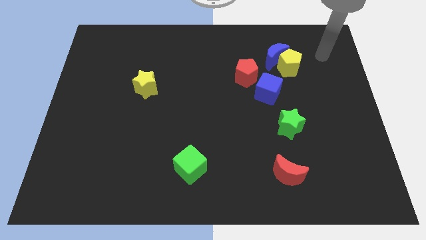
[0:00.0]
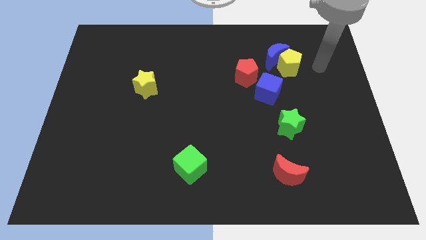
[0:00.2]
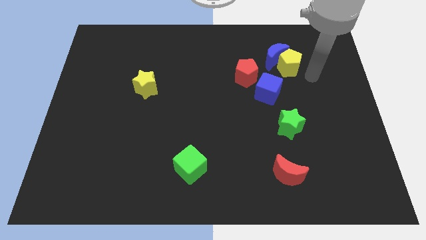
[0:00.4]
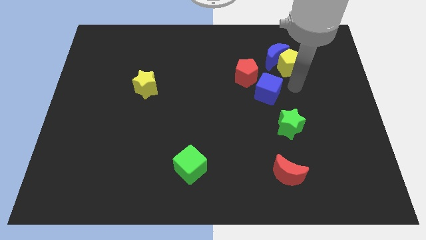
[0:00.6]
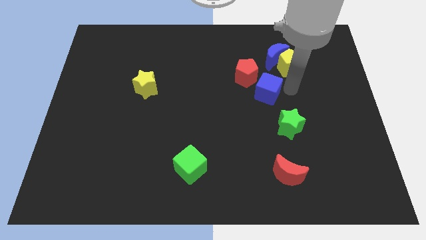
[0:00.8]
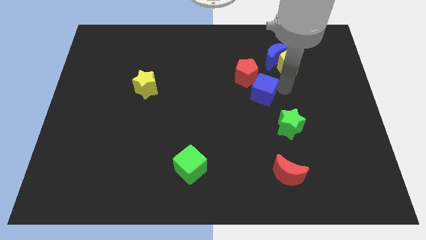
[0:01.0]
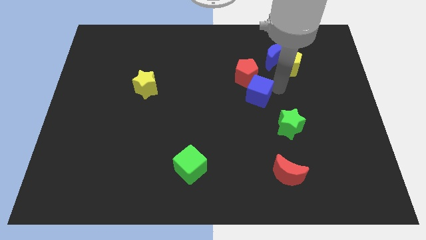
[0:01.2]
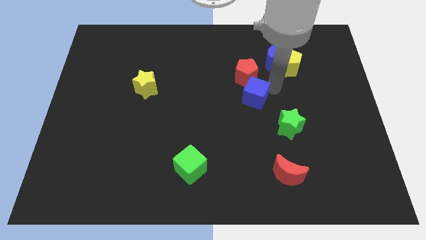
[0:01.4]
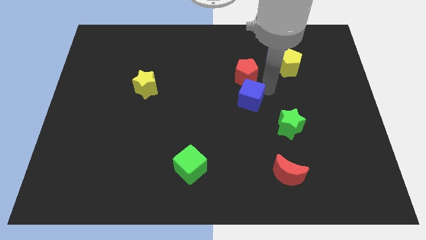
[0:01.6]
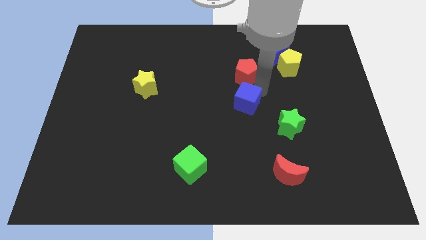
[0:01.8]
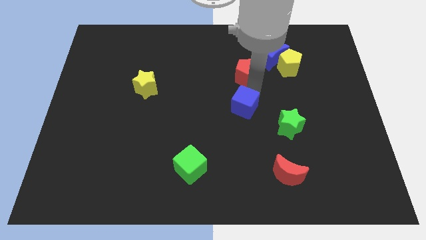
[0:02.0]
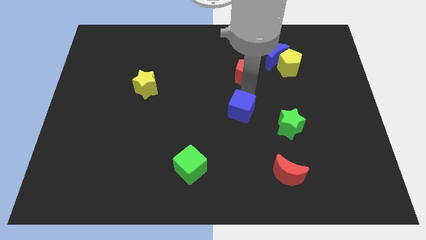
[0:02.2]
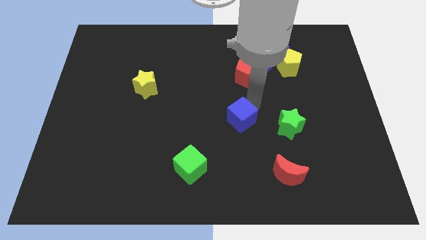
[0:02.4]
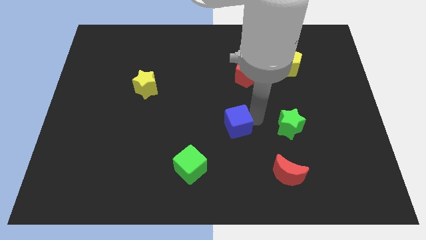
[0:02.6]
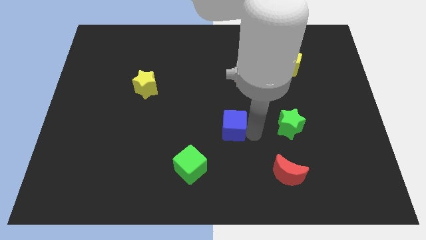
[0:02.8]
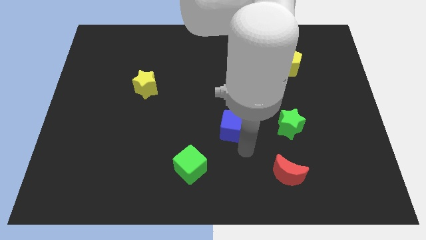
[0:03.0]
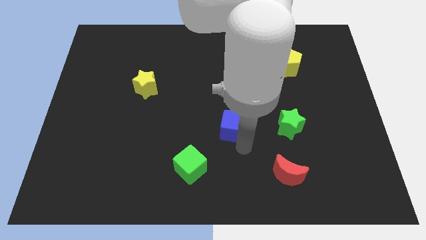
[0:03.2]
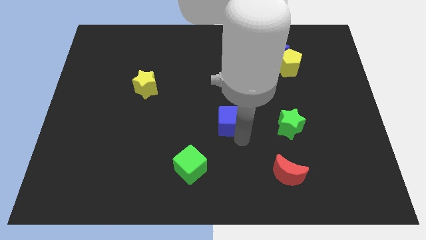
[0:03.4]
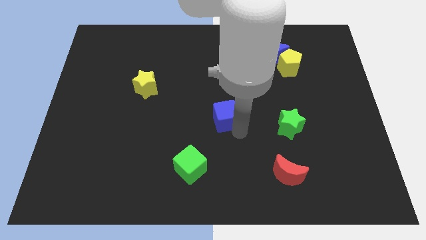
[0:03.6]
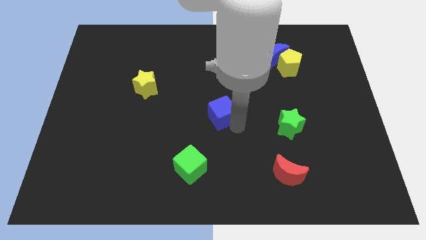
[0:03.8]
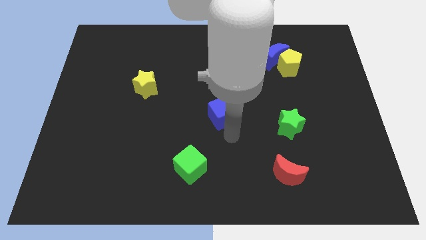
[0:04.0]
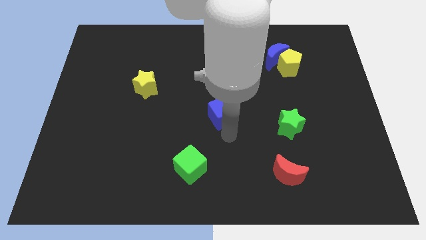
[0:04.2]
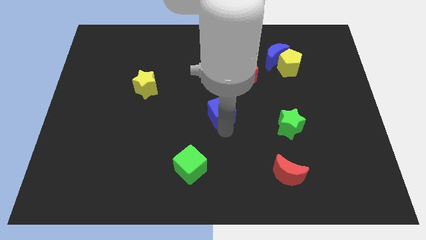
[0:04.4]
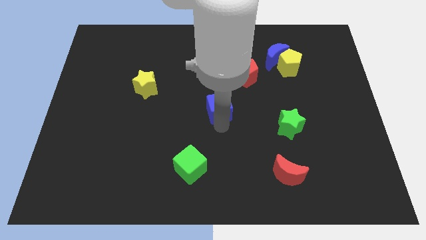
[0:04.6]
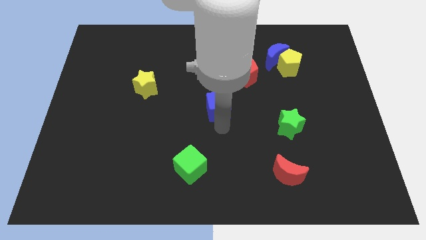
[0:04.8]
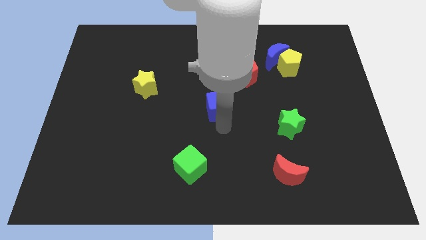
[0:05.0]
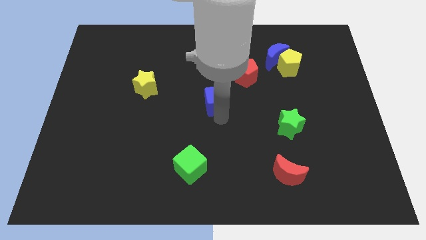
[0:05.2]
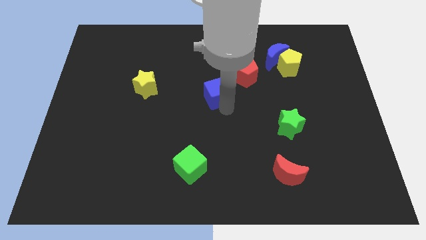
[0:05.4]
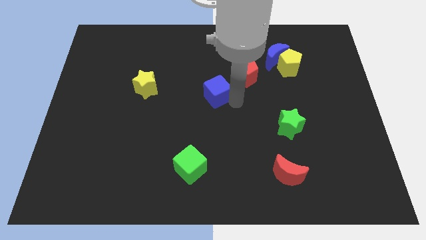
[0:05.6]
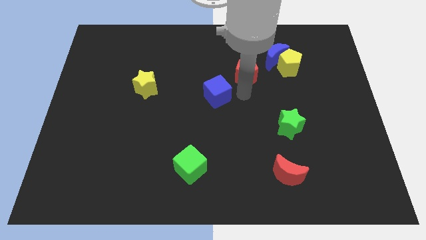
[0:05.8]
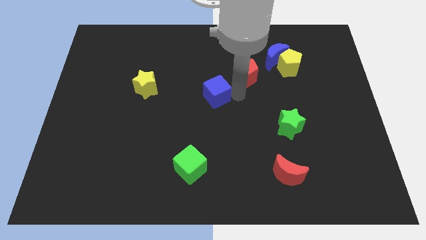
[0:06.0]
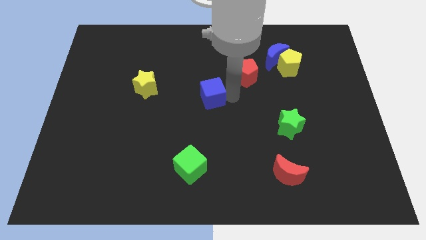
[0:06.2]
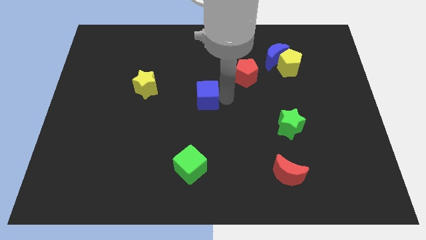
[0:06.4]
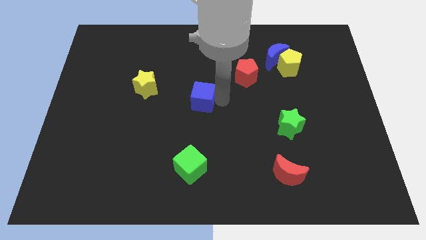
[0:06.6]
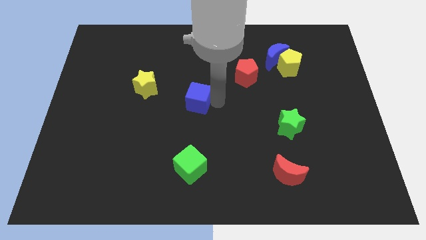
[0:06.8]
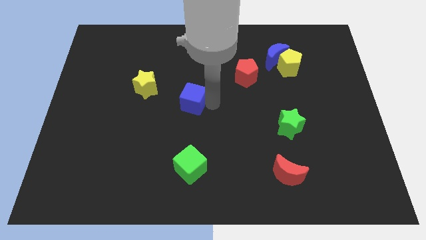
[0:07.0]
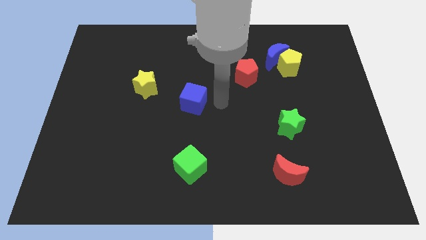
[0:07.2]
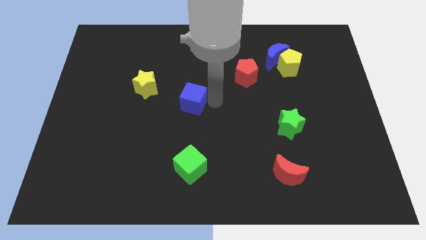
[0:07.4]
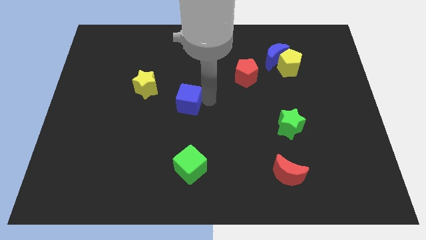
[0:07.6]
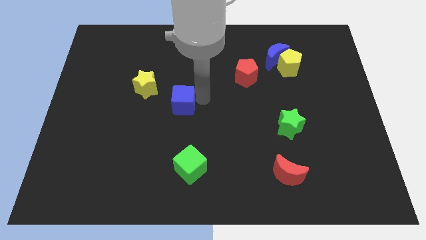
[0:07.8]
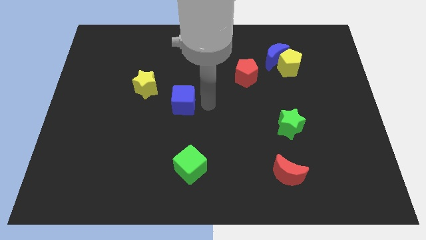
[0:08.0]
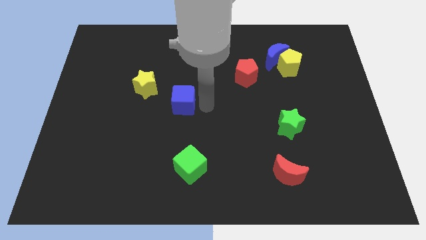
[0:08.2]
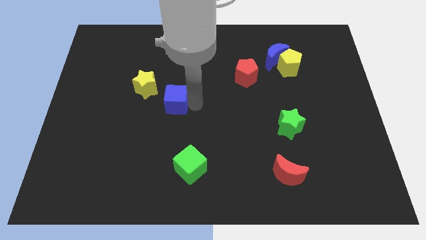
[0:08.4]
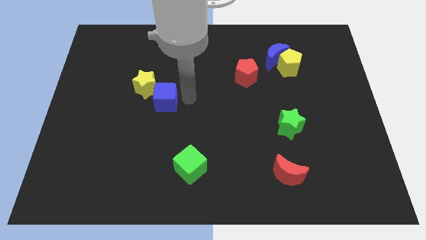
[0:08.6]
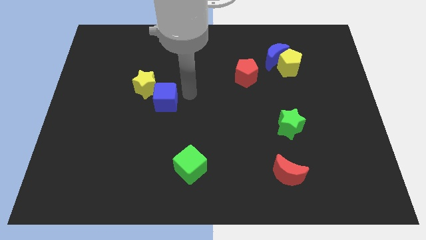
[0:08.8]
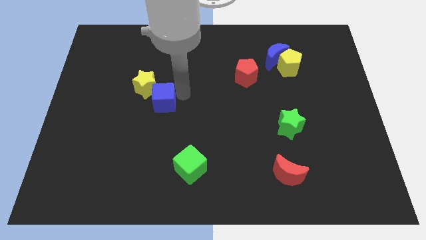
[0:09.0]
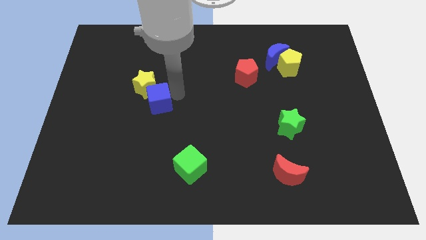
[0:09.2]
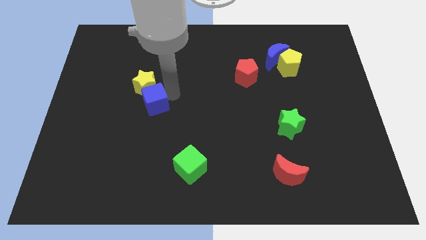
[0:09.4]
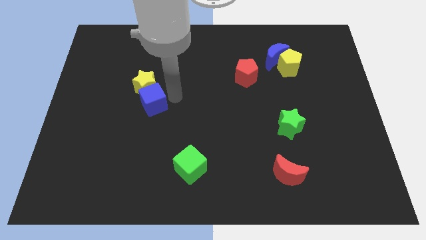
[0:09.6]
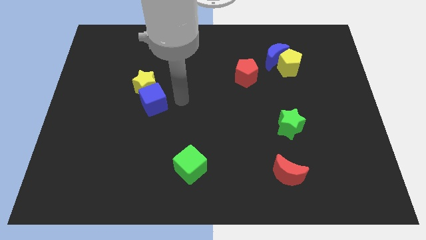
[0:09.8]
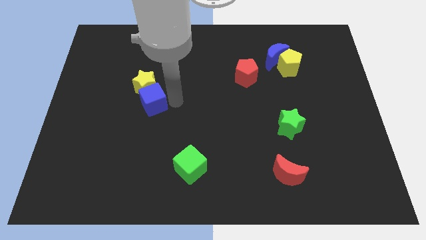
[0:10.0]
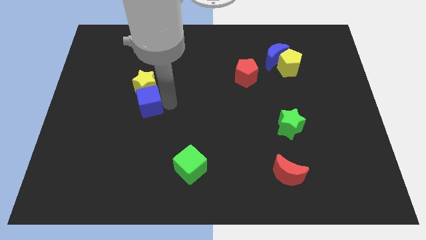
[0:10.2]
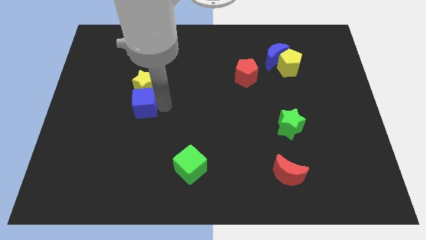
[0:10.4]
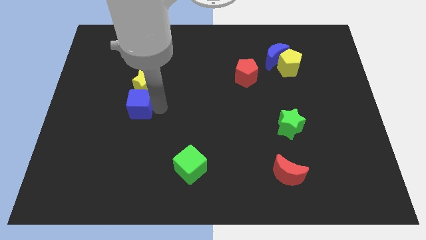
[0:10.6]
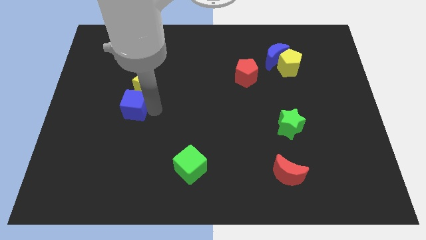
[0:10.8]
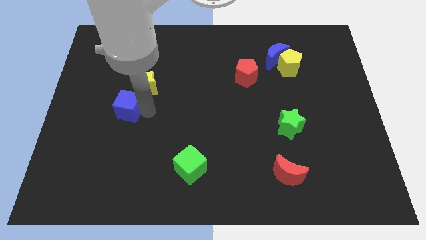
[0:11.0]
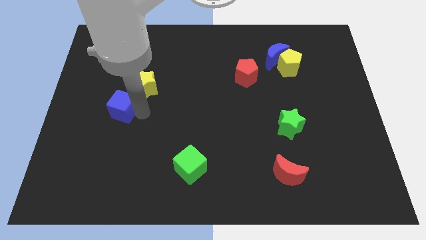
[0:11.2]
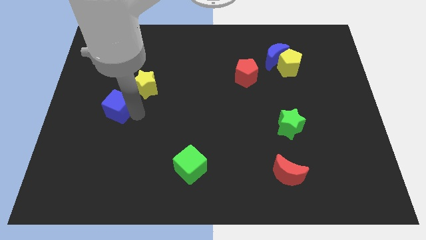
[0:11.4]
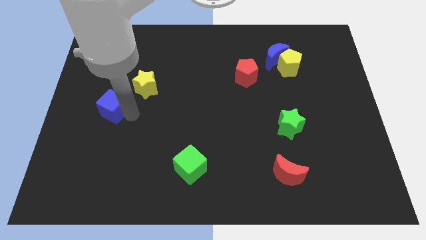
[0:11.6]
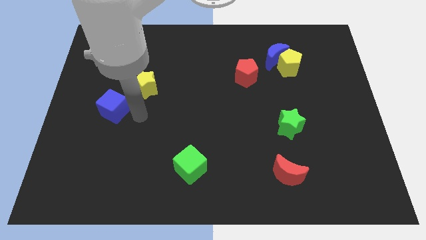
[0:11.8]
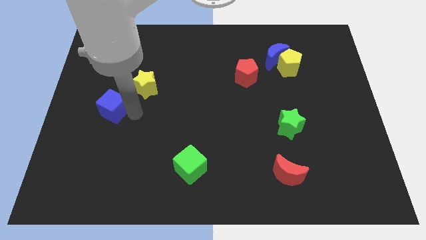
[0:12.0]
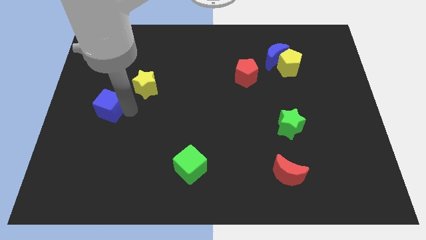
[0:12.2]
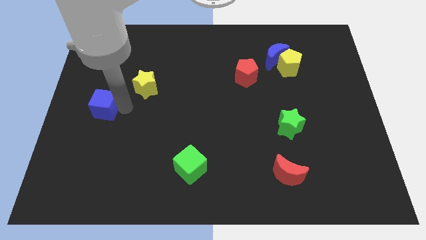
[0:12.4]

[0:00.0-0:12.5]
slide the blue cube to the center left

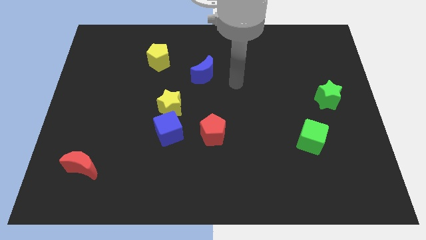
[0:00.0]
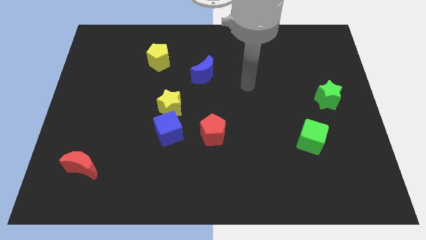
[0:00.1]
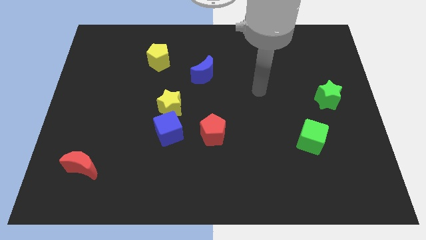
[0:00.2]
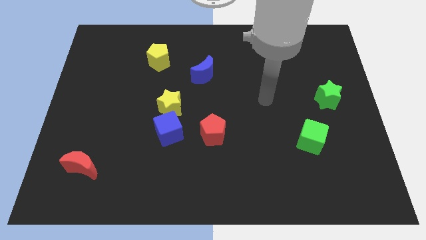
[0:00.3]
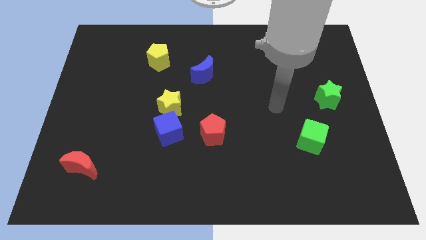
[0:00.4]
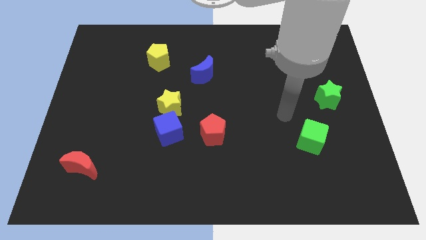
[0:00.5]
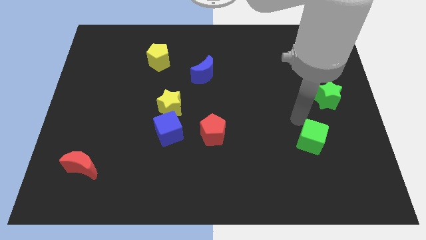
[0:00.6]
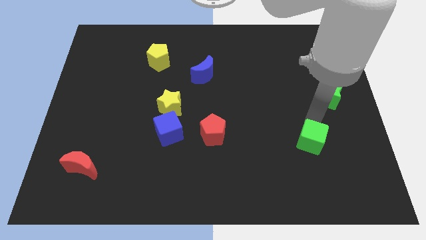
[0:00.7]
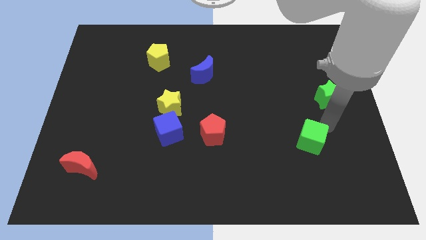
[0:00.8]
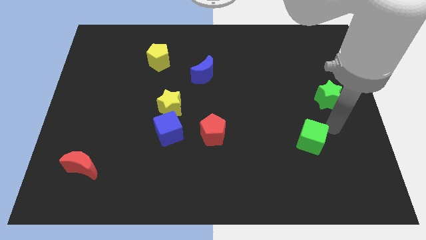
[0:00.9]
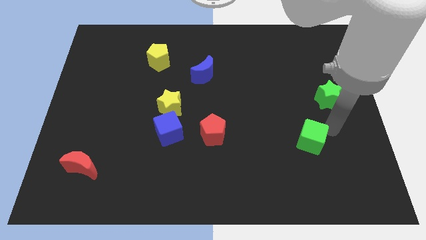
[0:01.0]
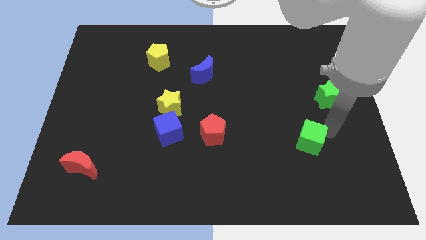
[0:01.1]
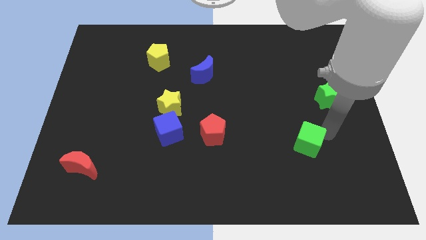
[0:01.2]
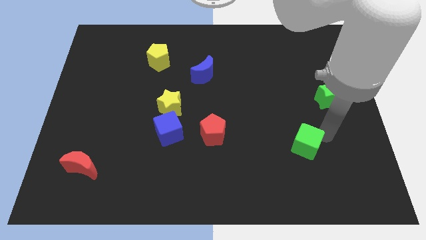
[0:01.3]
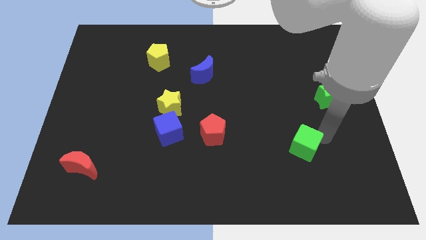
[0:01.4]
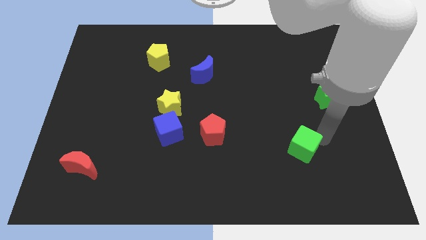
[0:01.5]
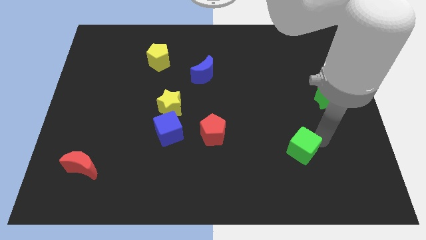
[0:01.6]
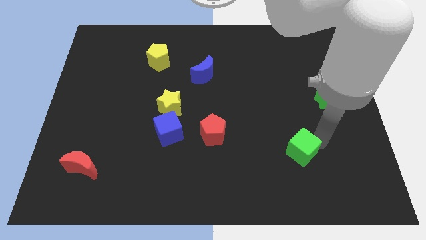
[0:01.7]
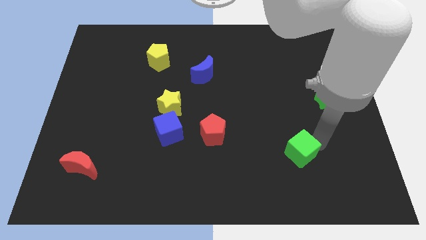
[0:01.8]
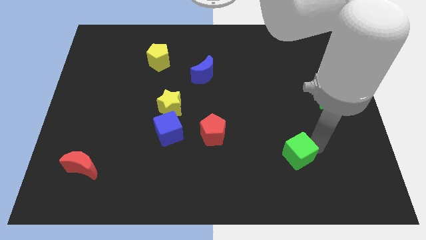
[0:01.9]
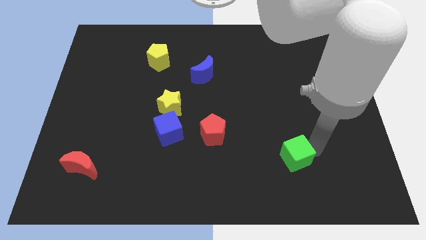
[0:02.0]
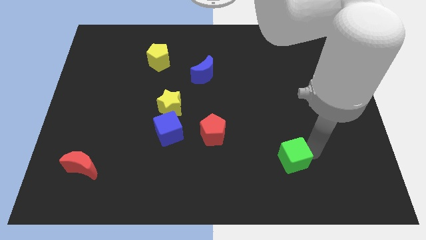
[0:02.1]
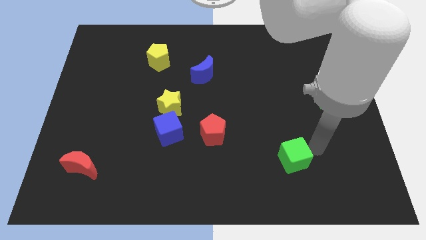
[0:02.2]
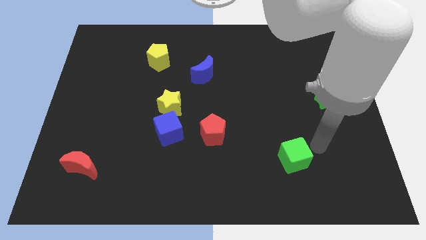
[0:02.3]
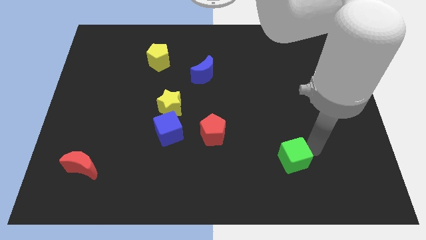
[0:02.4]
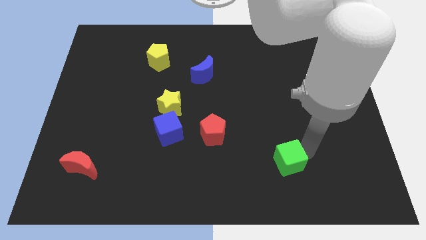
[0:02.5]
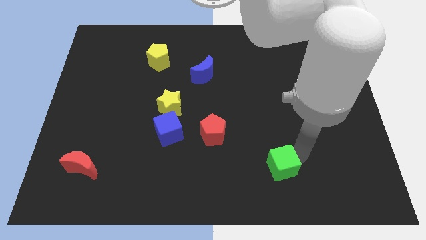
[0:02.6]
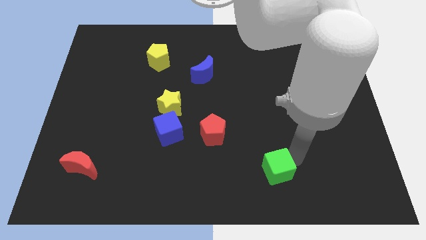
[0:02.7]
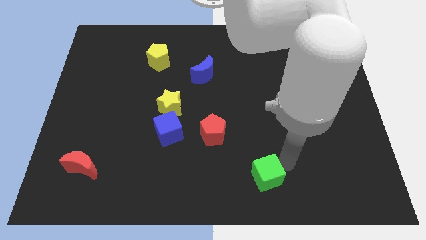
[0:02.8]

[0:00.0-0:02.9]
put the green cube to the bottom side
